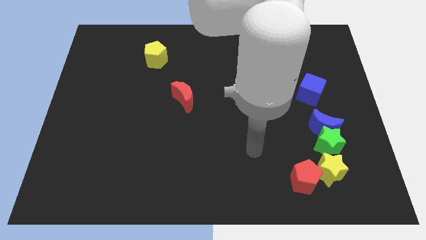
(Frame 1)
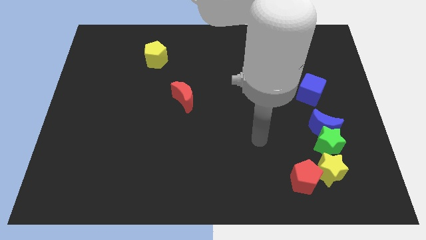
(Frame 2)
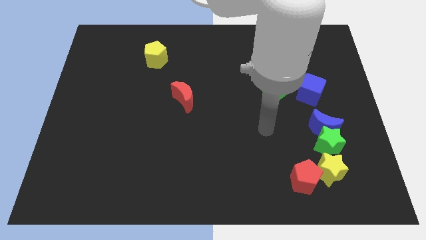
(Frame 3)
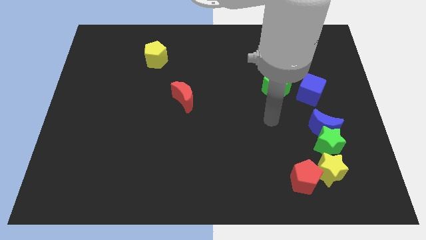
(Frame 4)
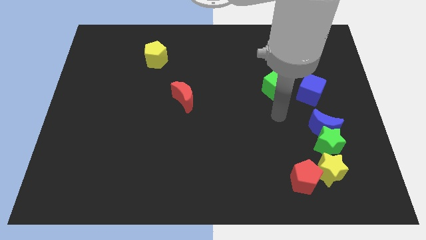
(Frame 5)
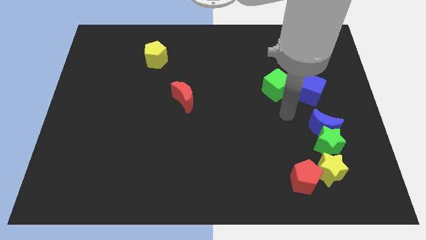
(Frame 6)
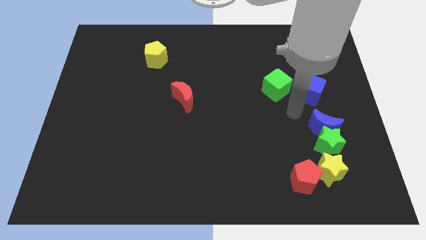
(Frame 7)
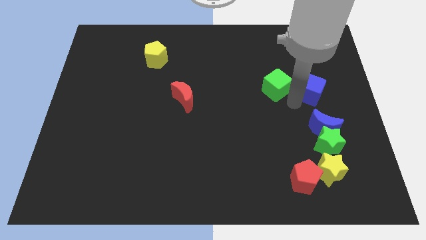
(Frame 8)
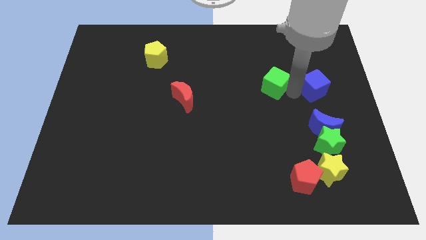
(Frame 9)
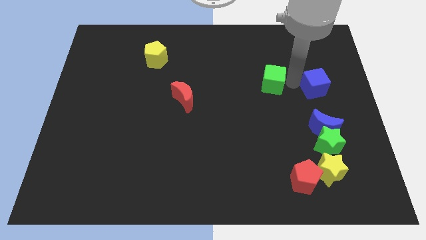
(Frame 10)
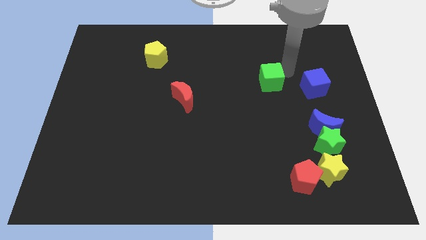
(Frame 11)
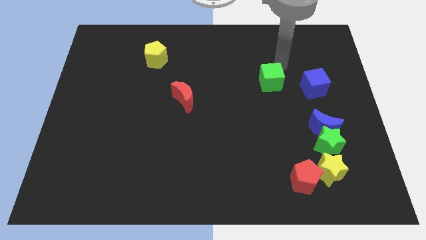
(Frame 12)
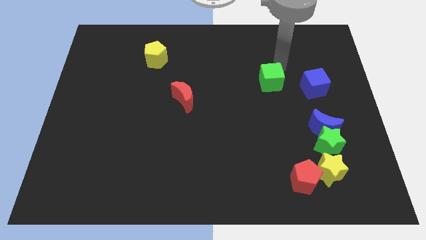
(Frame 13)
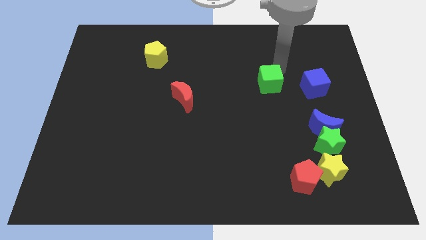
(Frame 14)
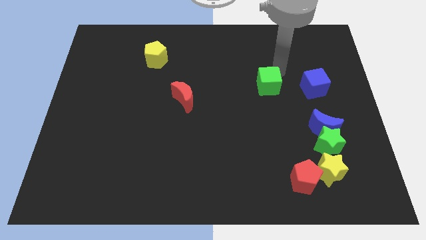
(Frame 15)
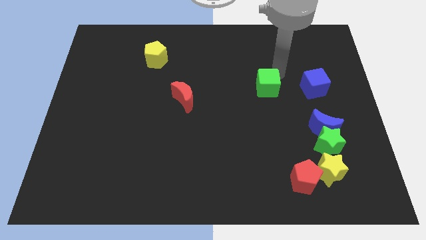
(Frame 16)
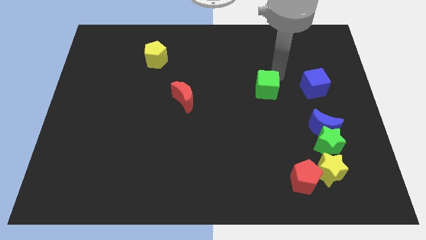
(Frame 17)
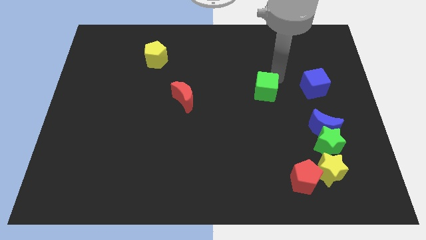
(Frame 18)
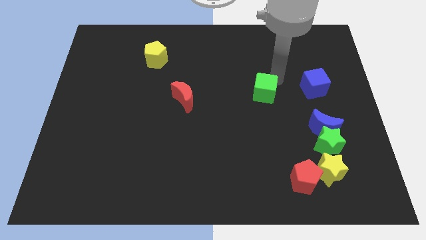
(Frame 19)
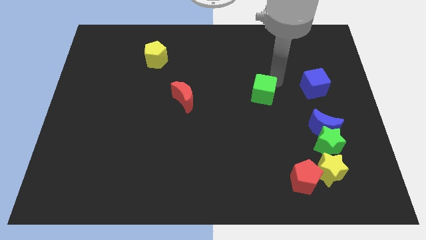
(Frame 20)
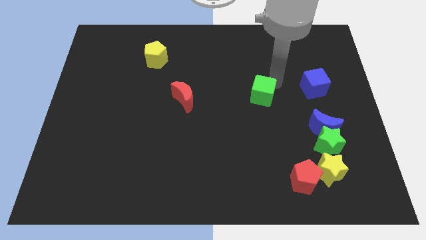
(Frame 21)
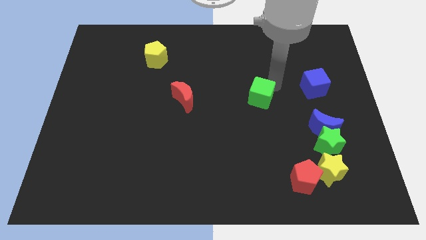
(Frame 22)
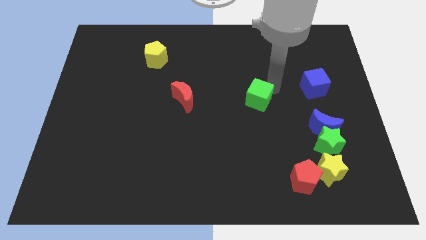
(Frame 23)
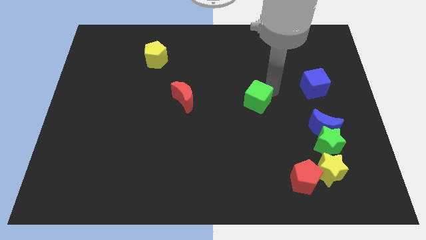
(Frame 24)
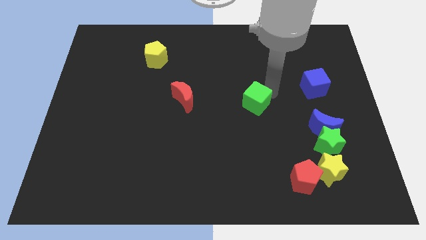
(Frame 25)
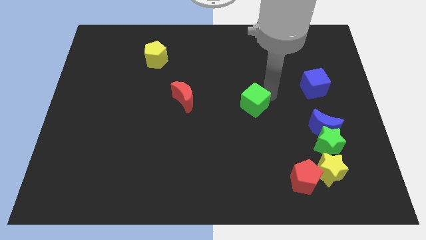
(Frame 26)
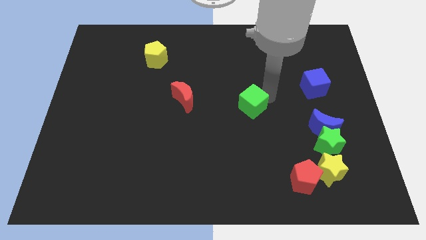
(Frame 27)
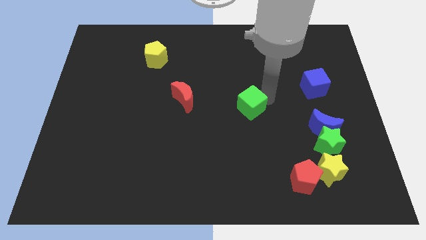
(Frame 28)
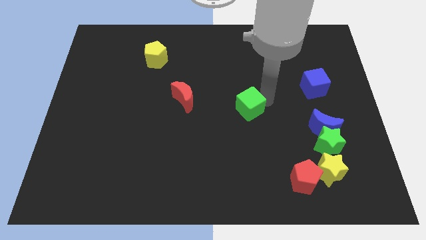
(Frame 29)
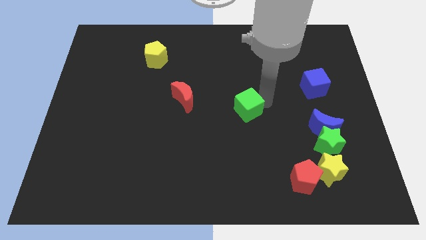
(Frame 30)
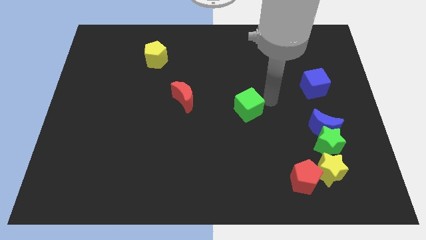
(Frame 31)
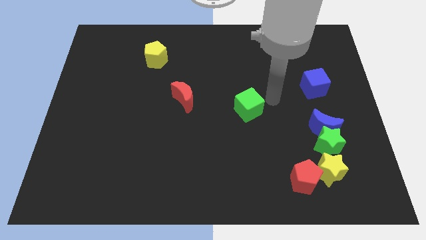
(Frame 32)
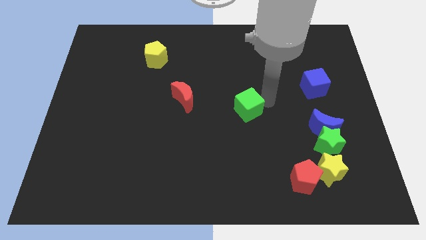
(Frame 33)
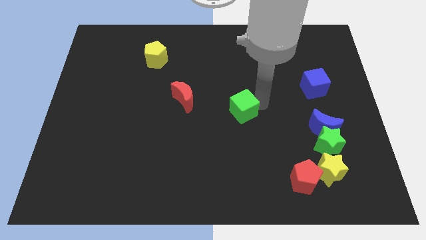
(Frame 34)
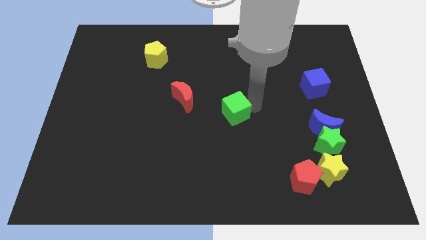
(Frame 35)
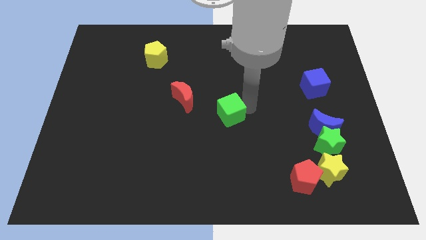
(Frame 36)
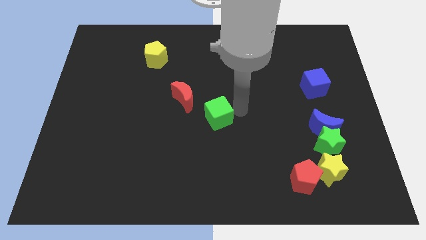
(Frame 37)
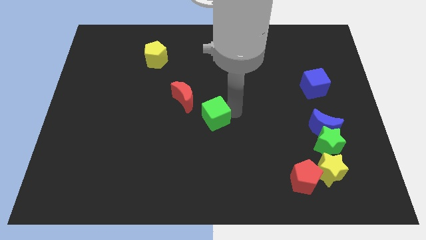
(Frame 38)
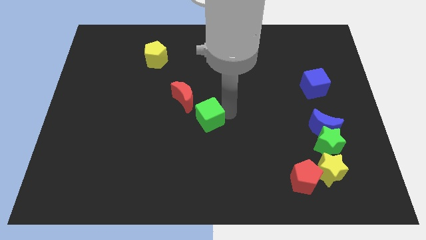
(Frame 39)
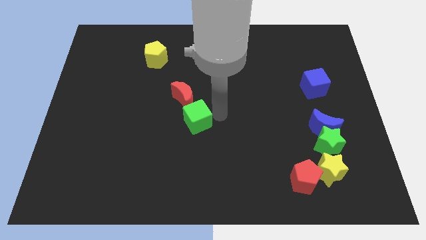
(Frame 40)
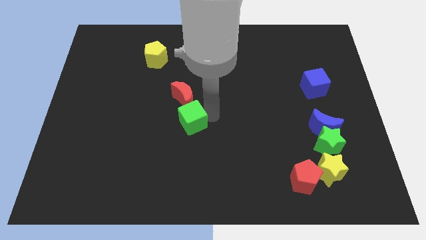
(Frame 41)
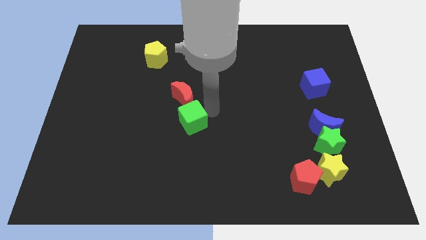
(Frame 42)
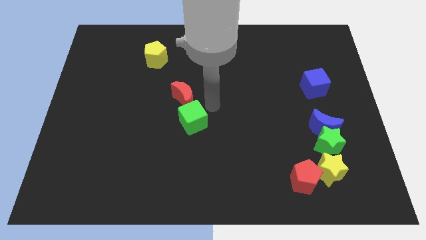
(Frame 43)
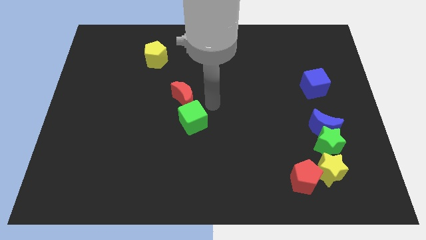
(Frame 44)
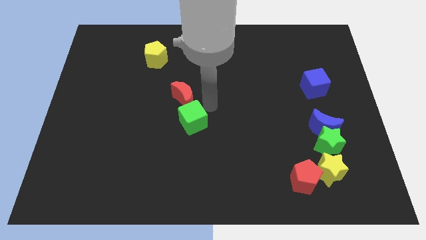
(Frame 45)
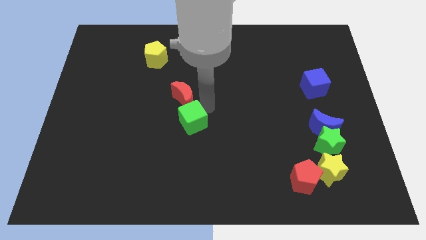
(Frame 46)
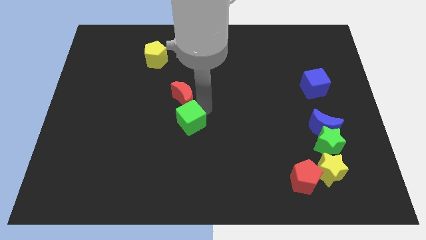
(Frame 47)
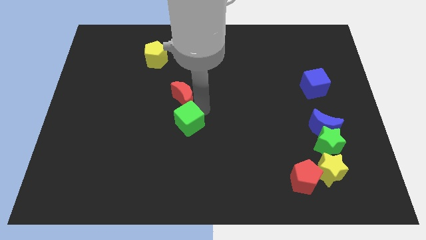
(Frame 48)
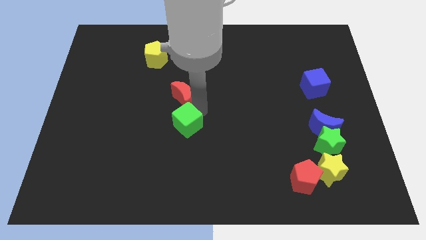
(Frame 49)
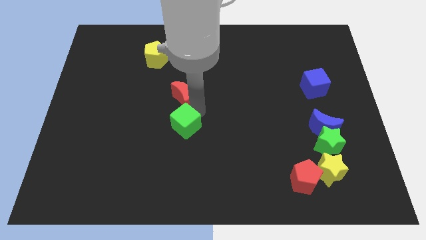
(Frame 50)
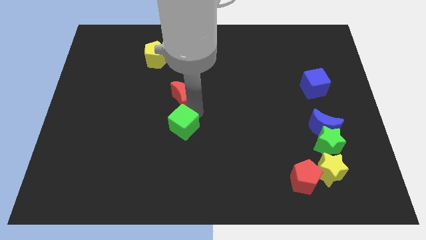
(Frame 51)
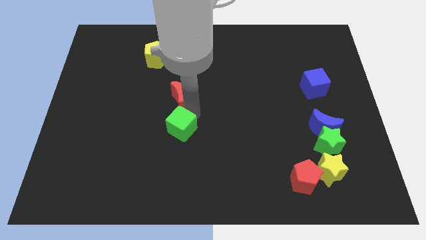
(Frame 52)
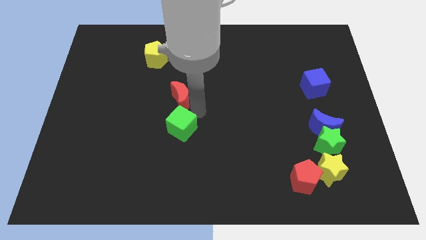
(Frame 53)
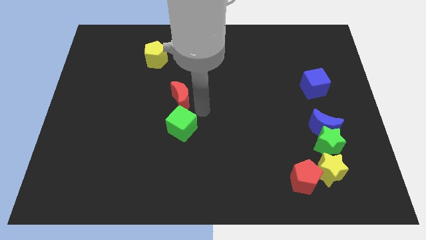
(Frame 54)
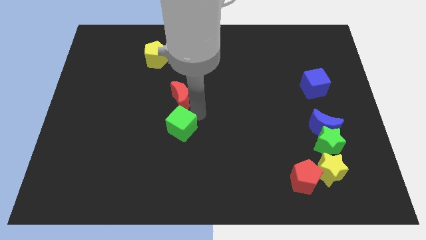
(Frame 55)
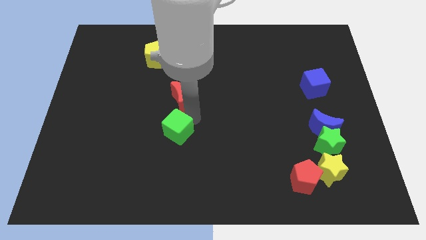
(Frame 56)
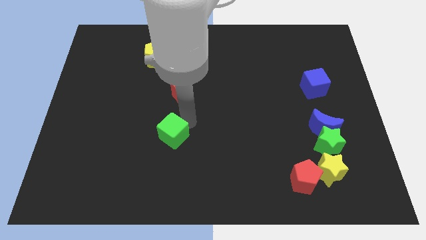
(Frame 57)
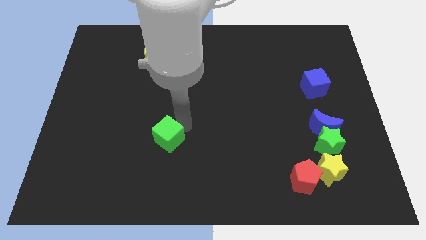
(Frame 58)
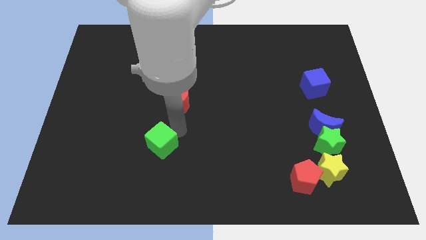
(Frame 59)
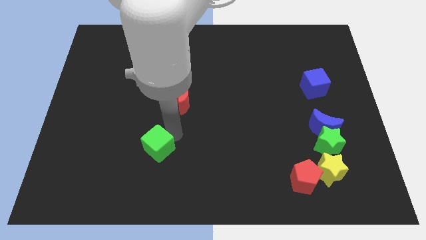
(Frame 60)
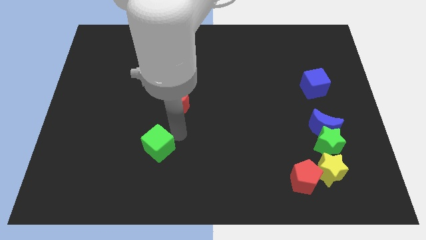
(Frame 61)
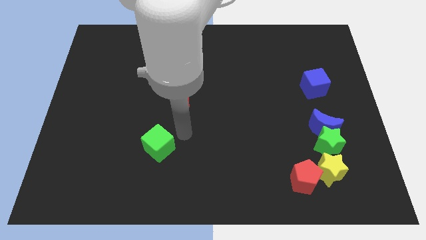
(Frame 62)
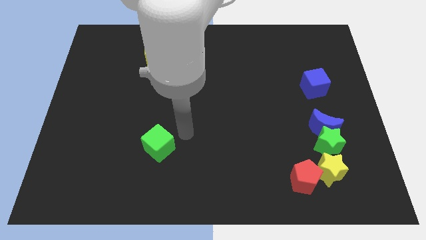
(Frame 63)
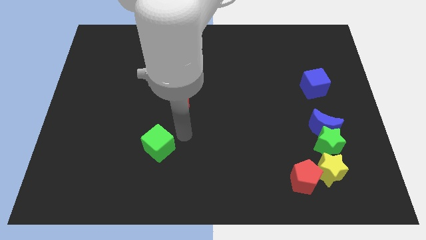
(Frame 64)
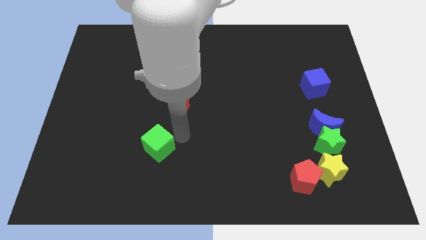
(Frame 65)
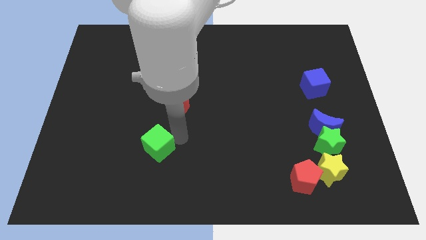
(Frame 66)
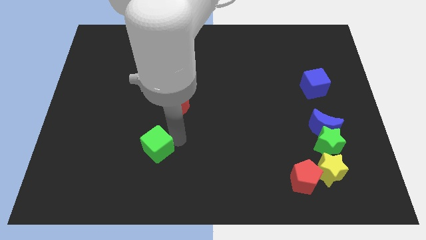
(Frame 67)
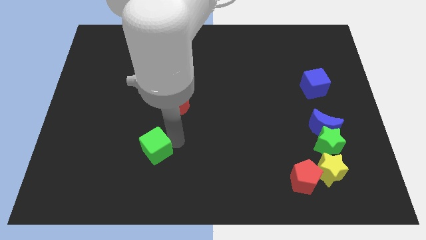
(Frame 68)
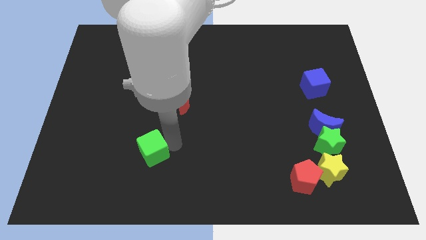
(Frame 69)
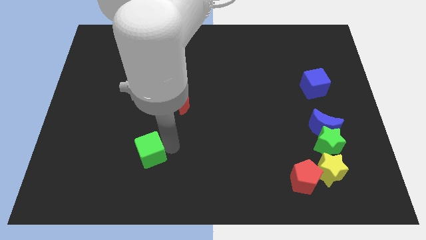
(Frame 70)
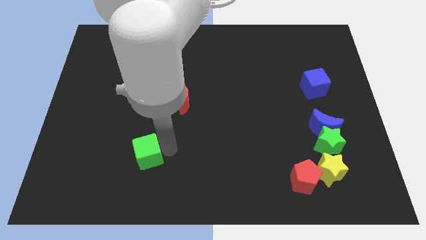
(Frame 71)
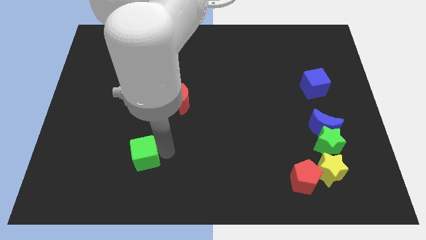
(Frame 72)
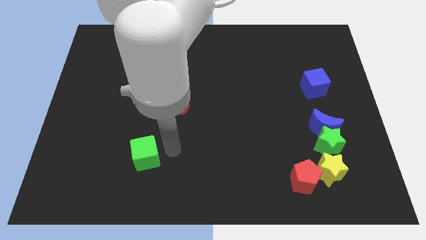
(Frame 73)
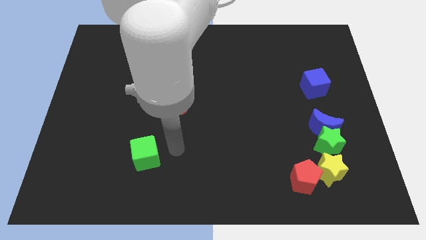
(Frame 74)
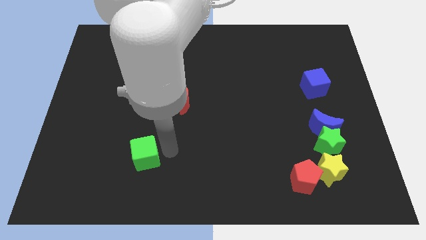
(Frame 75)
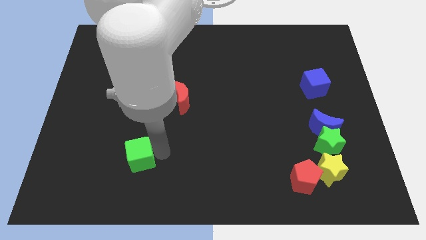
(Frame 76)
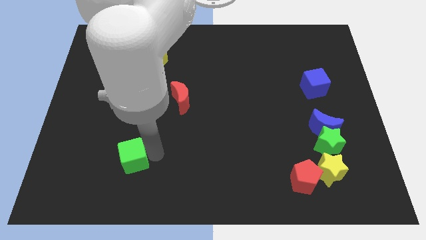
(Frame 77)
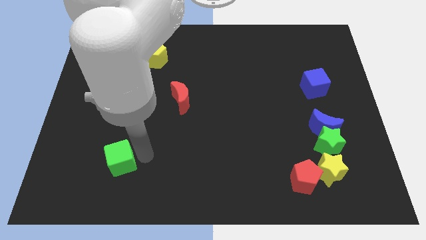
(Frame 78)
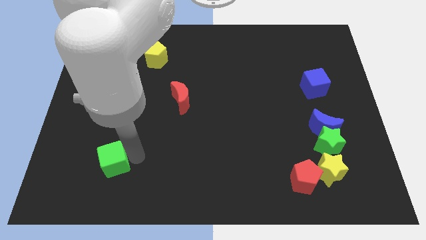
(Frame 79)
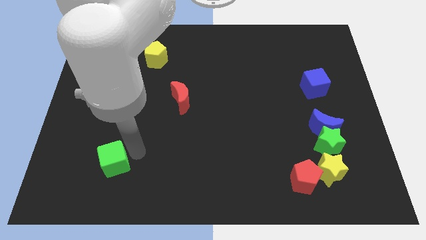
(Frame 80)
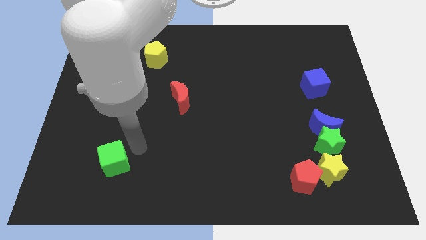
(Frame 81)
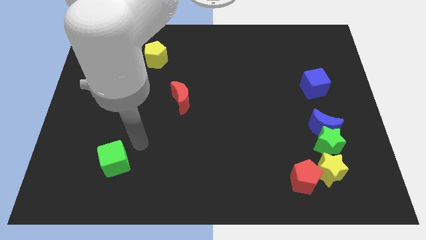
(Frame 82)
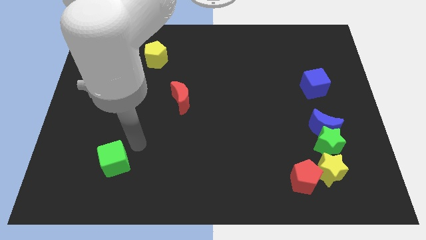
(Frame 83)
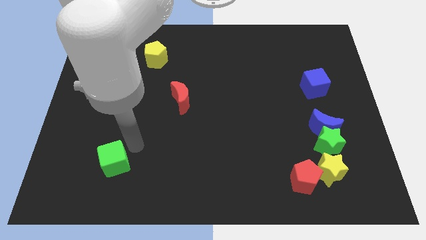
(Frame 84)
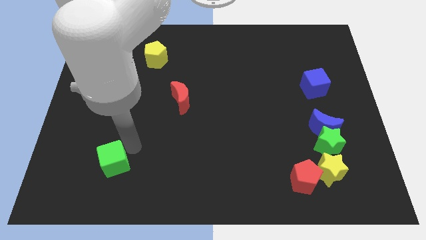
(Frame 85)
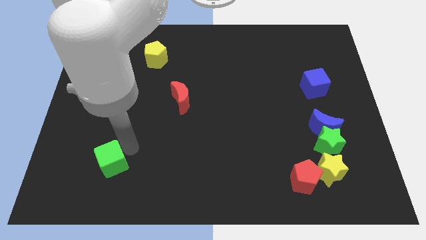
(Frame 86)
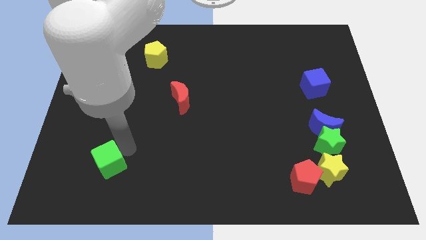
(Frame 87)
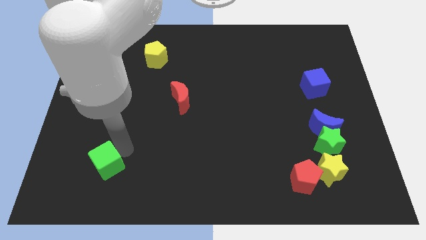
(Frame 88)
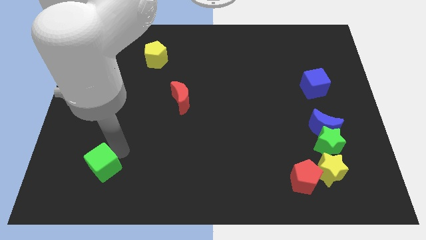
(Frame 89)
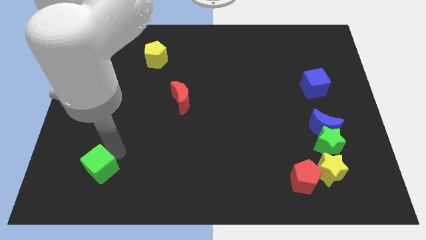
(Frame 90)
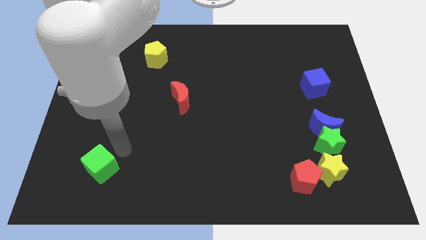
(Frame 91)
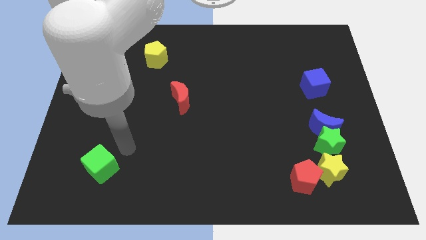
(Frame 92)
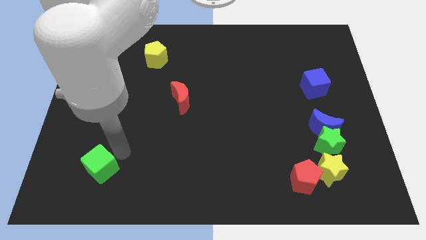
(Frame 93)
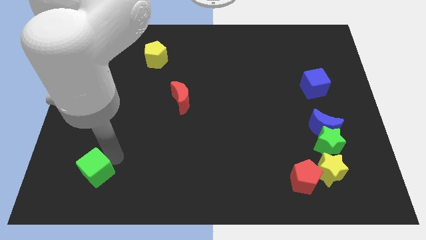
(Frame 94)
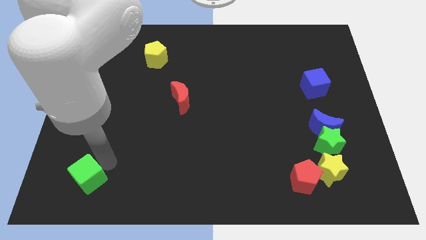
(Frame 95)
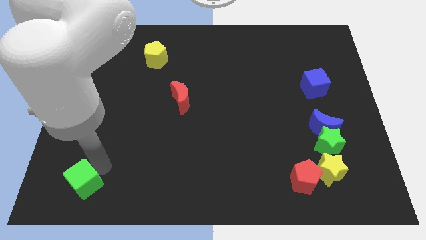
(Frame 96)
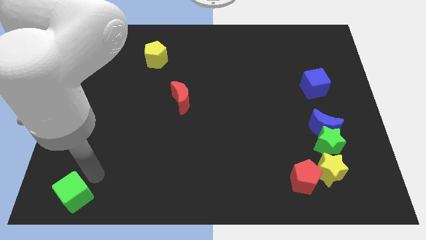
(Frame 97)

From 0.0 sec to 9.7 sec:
push the green cube to the bottom left corner
